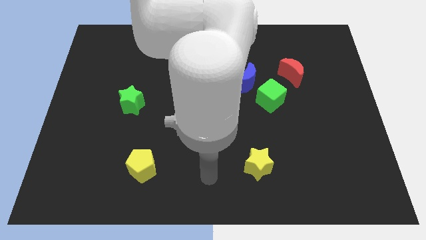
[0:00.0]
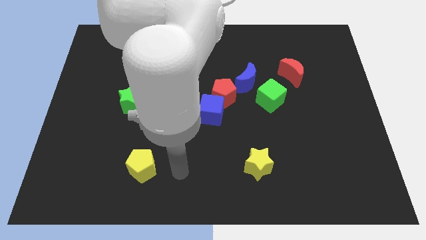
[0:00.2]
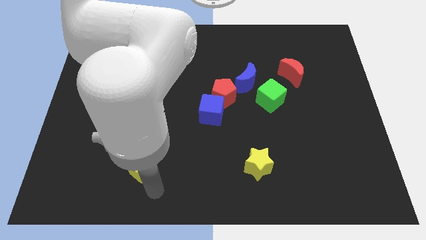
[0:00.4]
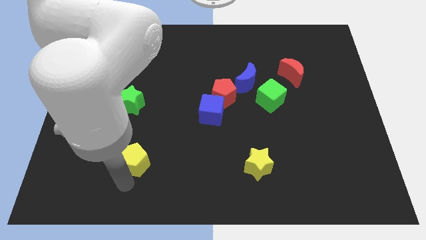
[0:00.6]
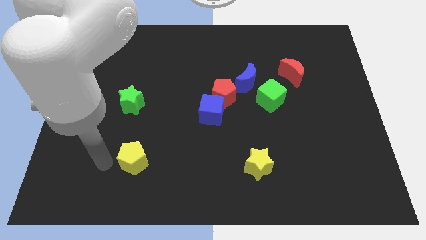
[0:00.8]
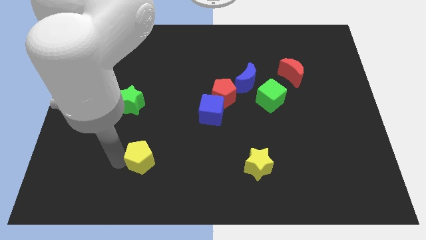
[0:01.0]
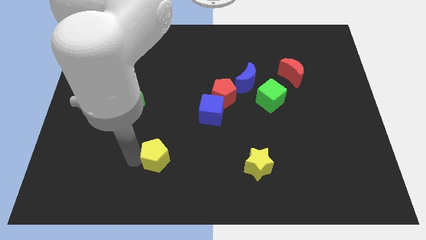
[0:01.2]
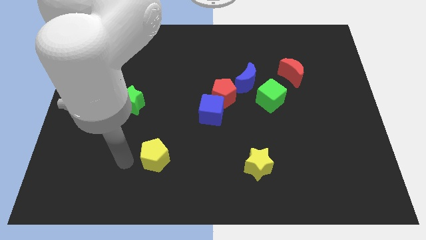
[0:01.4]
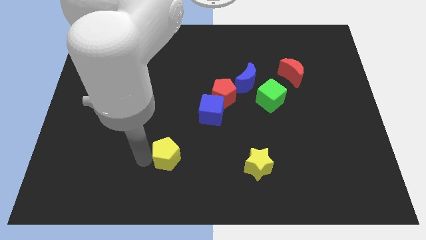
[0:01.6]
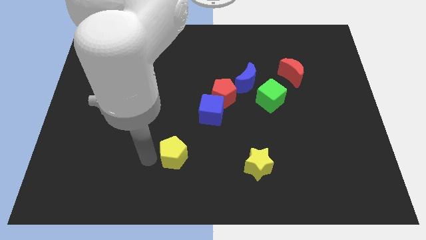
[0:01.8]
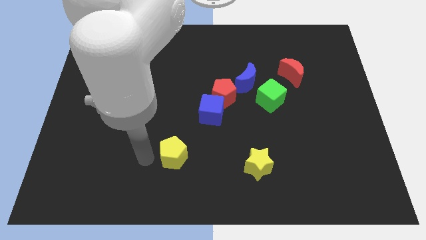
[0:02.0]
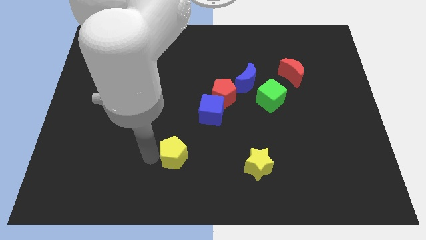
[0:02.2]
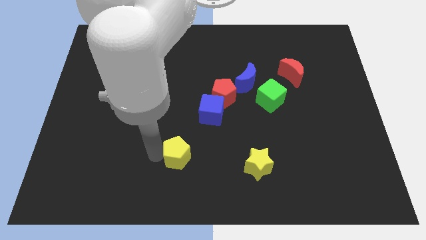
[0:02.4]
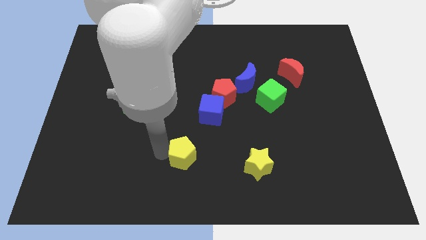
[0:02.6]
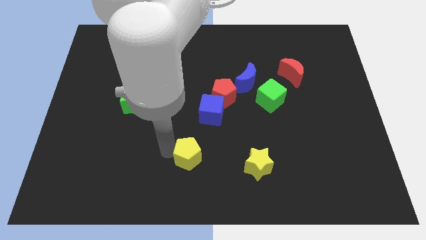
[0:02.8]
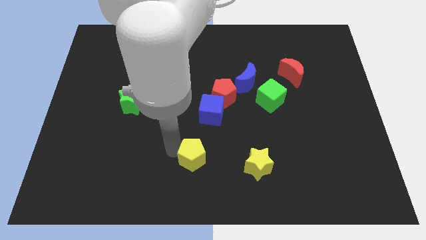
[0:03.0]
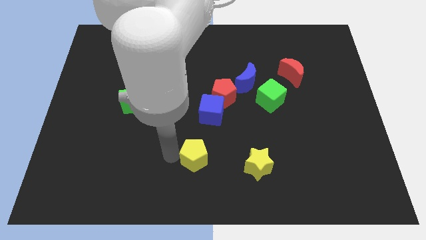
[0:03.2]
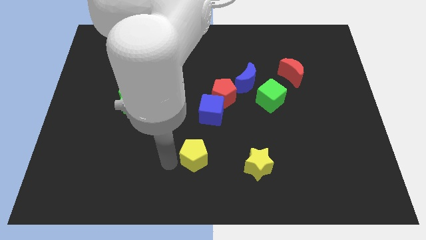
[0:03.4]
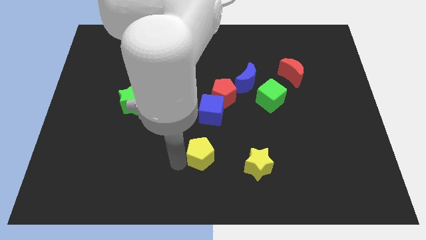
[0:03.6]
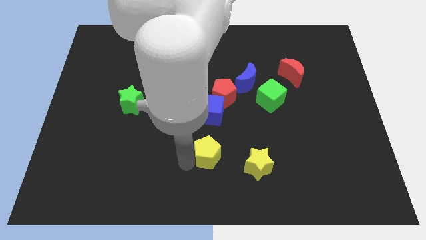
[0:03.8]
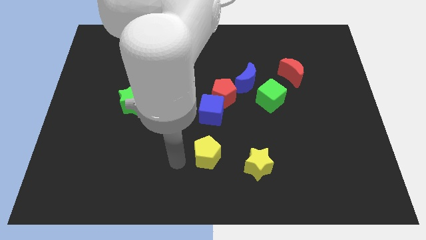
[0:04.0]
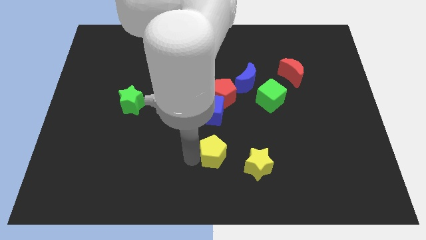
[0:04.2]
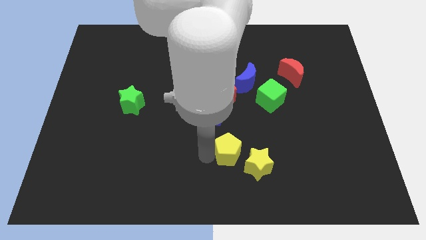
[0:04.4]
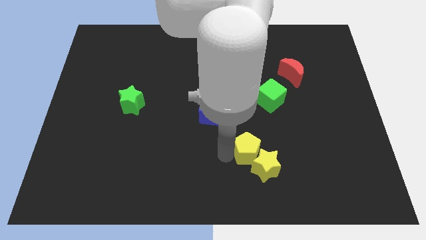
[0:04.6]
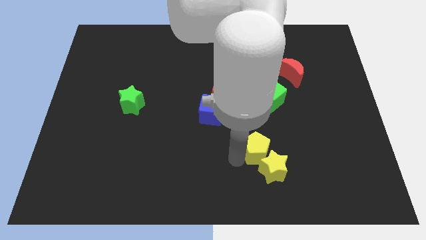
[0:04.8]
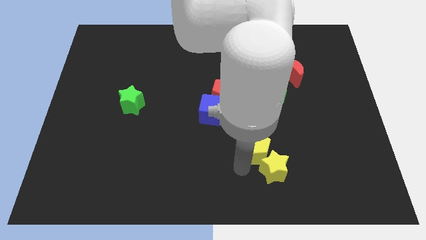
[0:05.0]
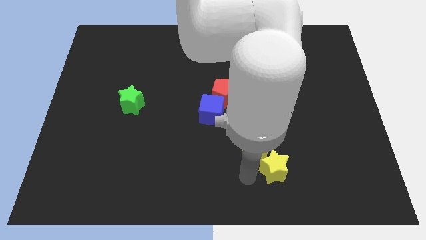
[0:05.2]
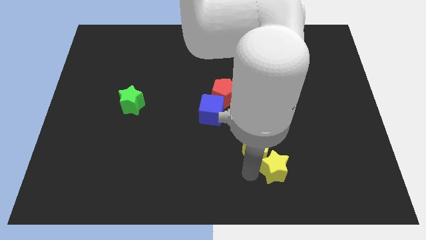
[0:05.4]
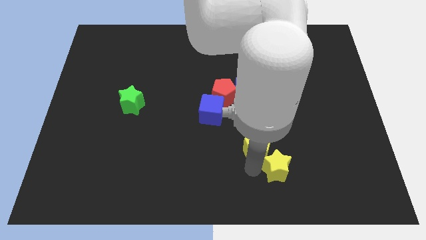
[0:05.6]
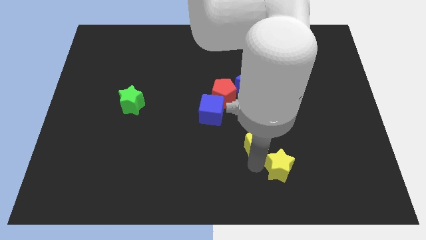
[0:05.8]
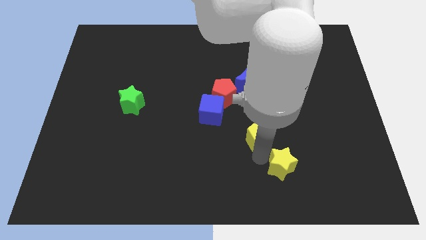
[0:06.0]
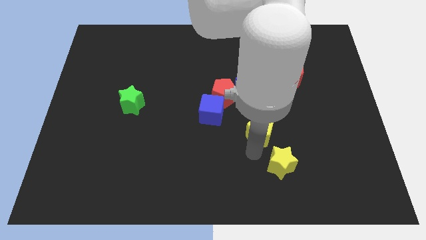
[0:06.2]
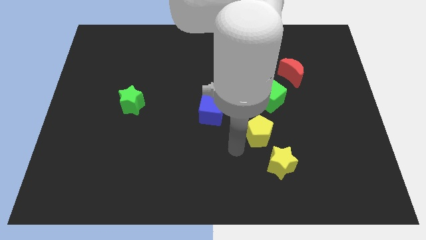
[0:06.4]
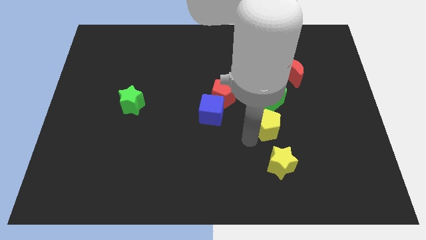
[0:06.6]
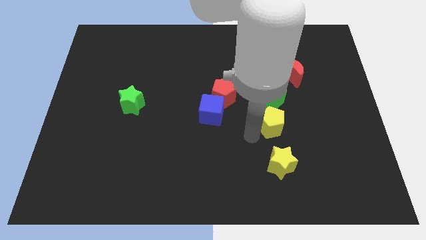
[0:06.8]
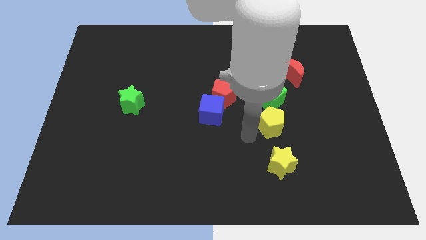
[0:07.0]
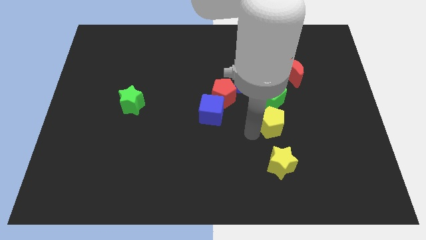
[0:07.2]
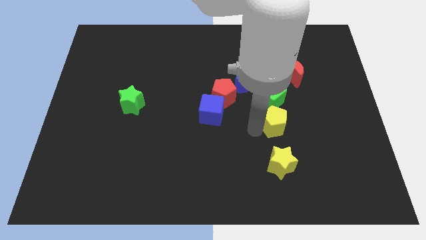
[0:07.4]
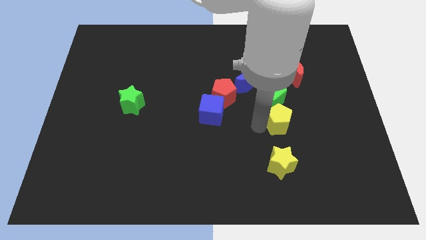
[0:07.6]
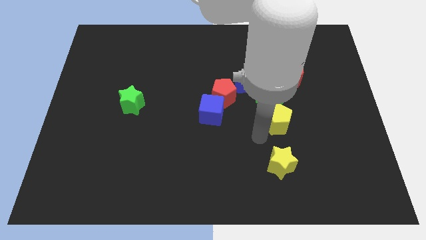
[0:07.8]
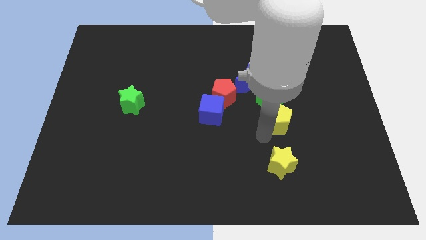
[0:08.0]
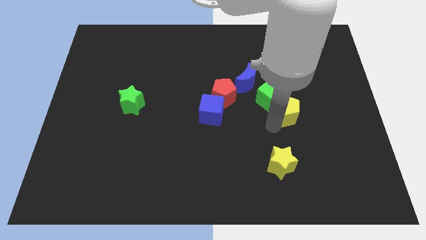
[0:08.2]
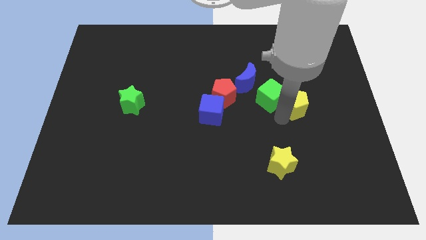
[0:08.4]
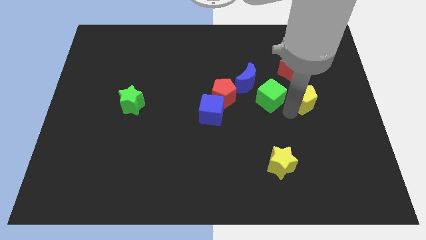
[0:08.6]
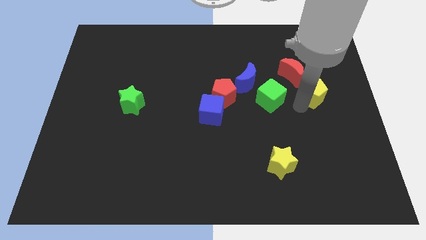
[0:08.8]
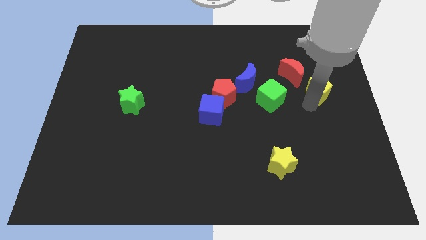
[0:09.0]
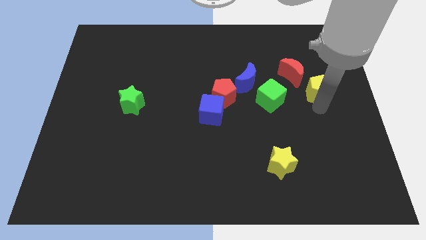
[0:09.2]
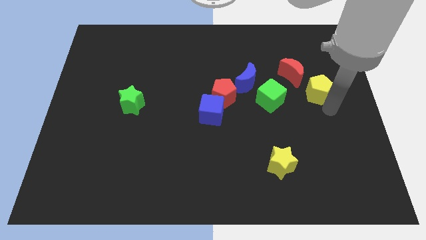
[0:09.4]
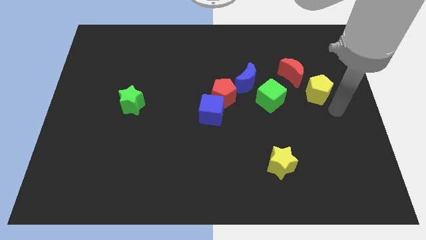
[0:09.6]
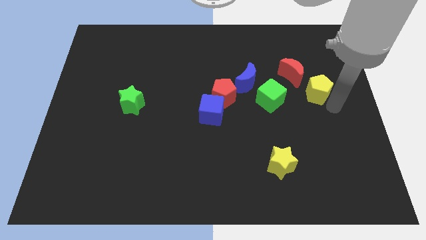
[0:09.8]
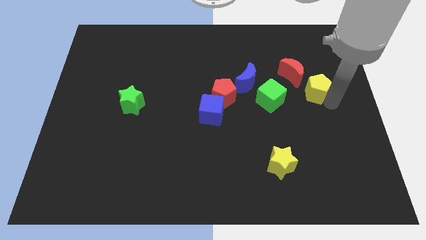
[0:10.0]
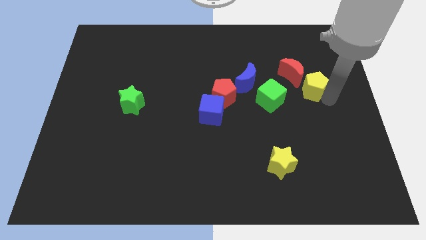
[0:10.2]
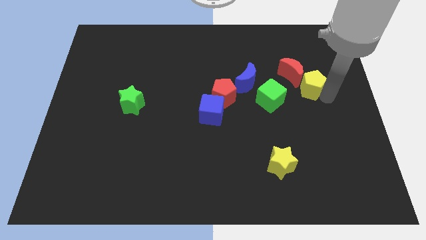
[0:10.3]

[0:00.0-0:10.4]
push the yellow pentagon to the right of the blue moon

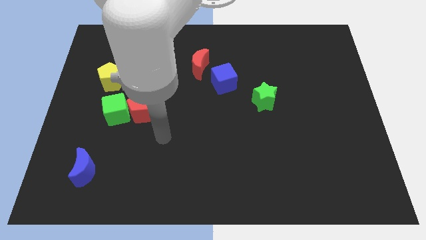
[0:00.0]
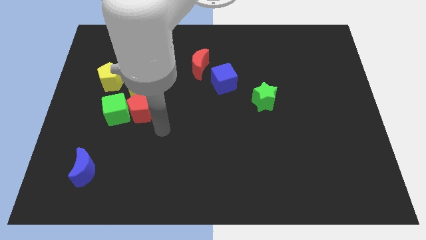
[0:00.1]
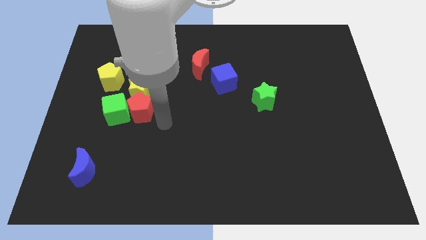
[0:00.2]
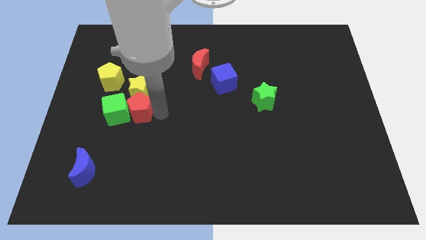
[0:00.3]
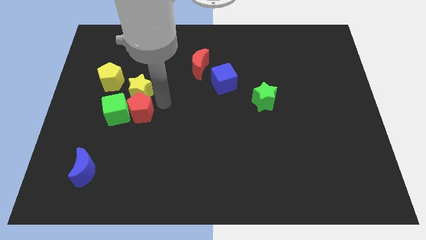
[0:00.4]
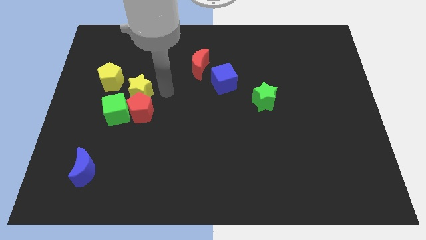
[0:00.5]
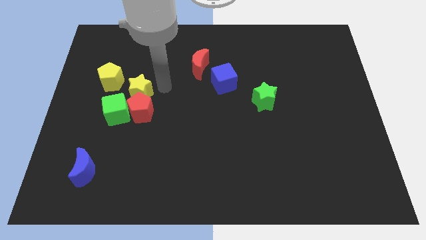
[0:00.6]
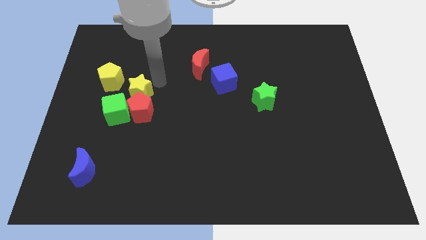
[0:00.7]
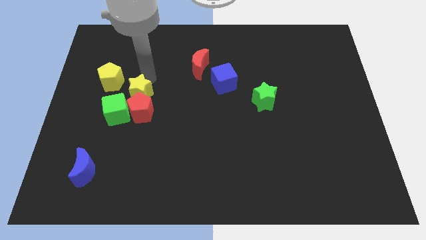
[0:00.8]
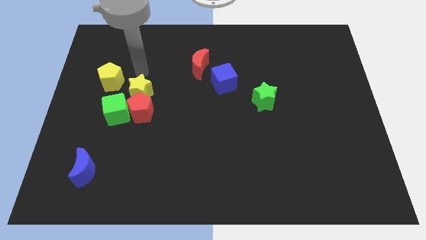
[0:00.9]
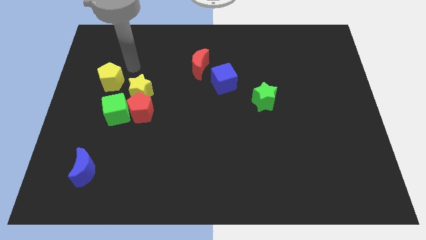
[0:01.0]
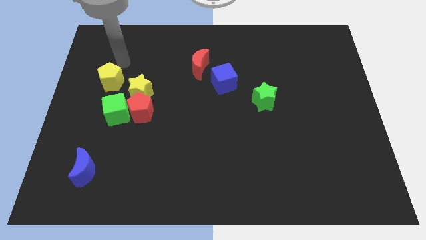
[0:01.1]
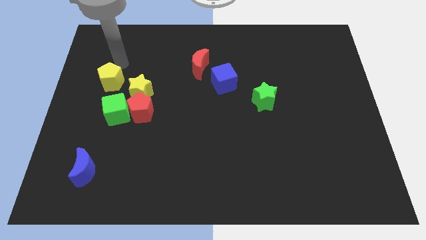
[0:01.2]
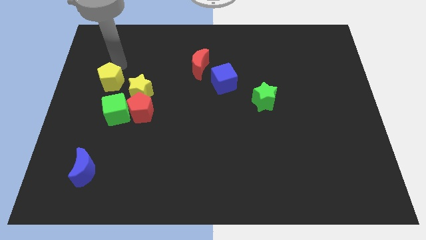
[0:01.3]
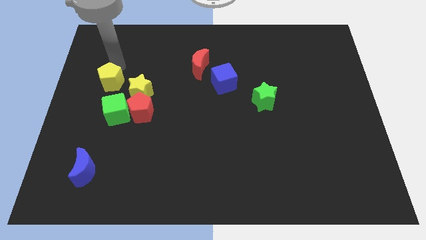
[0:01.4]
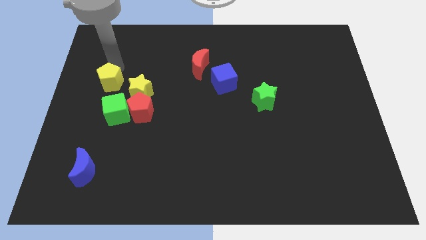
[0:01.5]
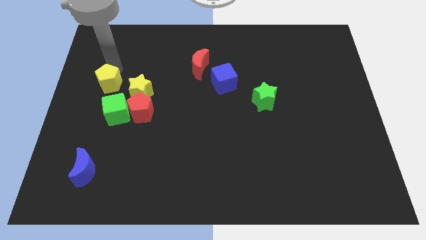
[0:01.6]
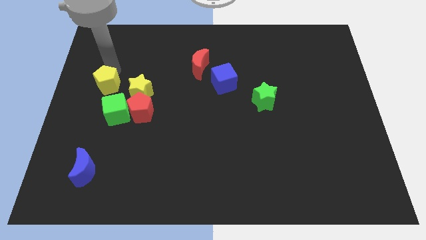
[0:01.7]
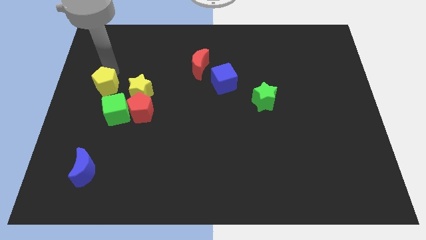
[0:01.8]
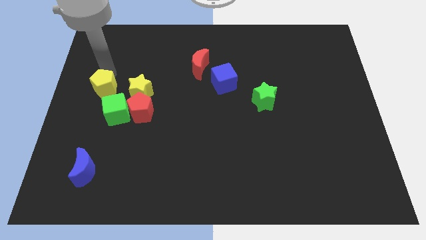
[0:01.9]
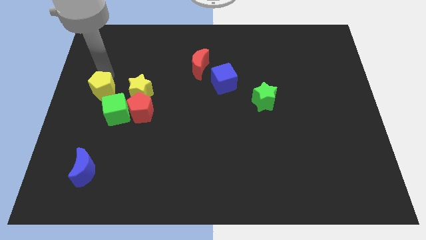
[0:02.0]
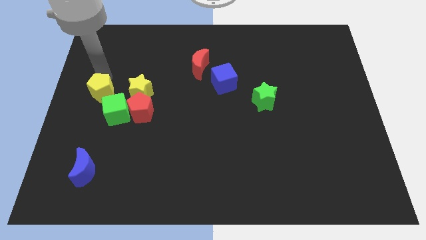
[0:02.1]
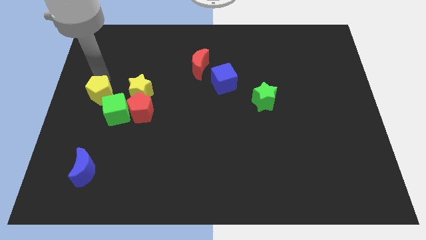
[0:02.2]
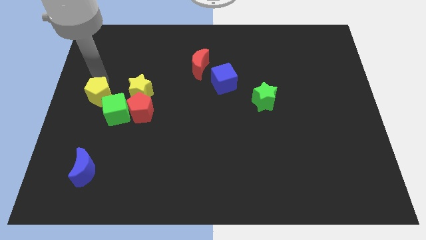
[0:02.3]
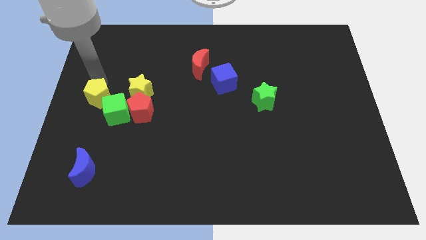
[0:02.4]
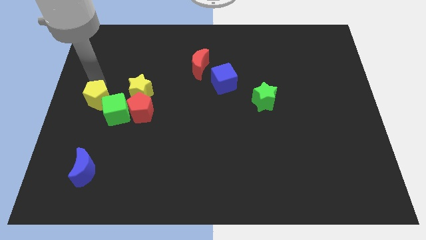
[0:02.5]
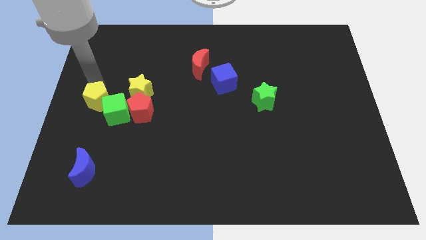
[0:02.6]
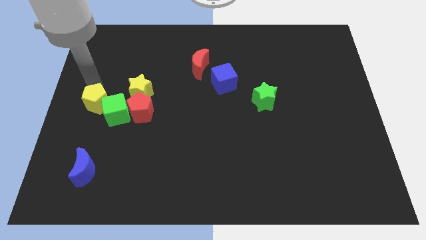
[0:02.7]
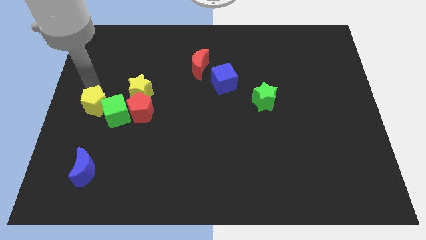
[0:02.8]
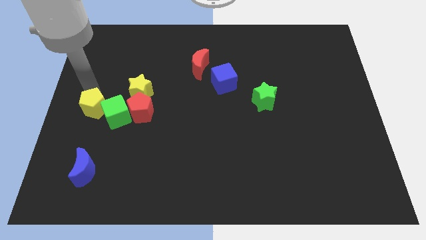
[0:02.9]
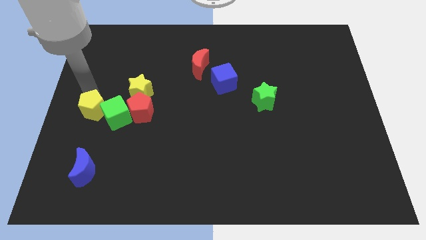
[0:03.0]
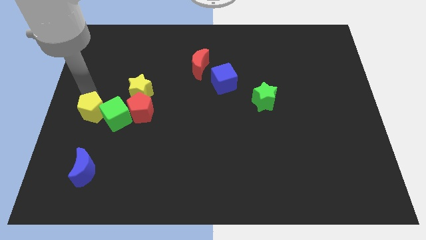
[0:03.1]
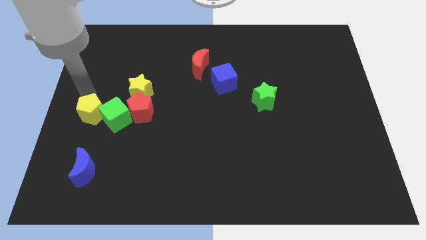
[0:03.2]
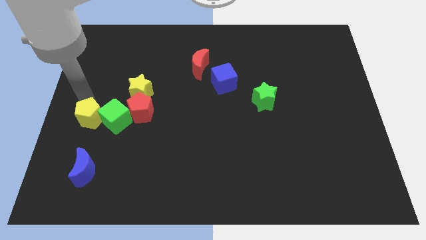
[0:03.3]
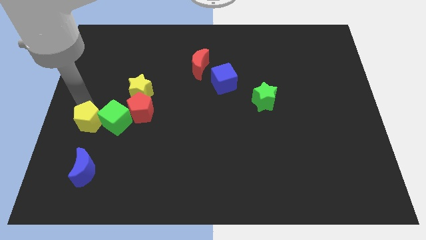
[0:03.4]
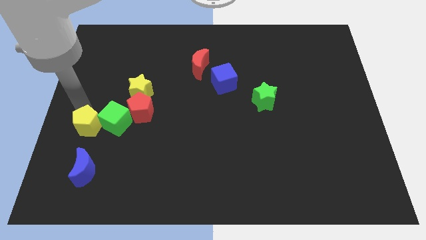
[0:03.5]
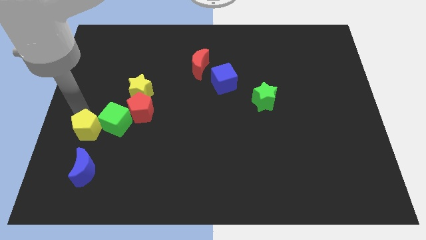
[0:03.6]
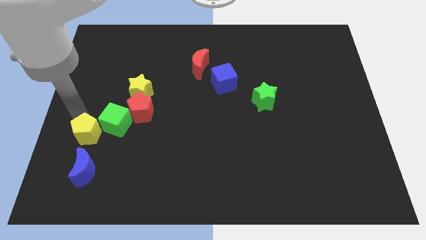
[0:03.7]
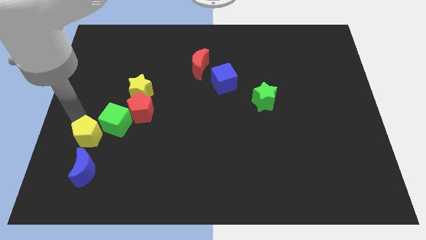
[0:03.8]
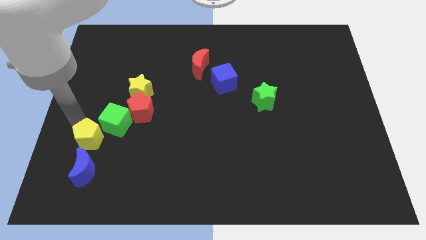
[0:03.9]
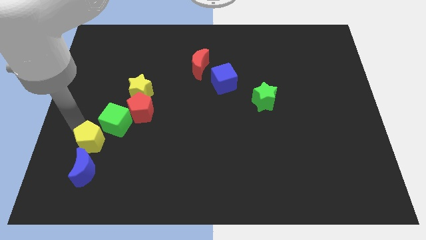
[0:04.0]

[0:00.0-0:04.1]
push the yellow pentagon below the green cube
